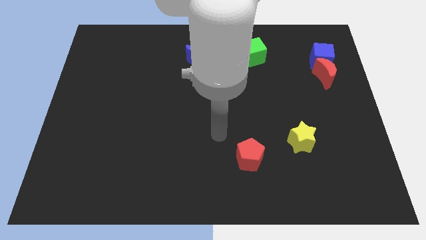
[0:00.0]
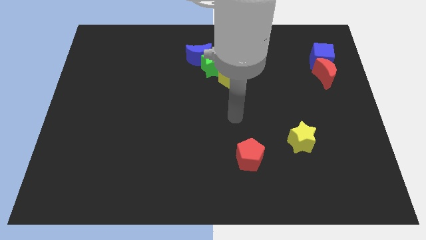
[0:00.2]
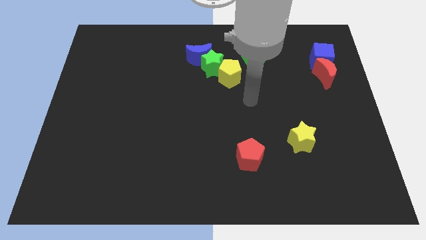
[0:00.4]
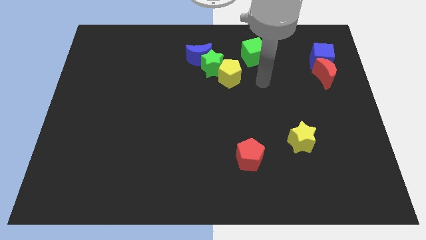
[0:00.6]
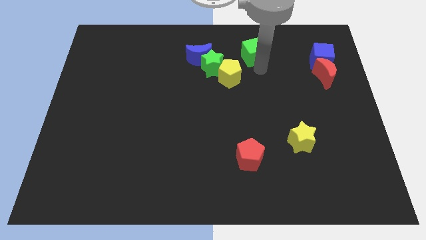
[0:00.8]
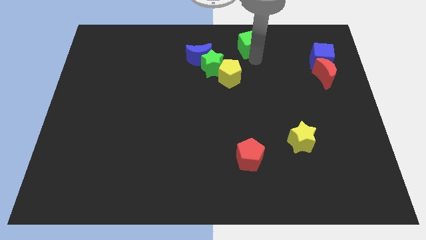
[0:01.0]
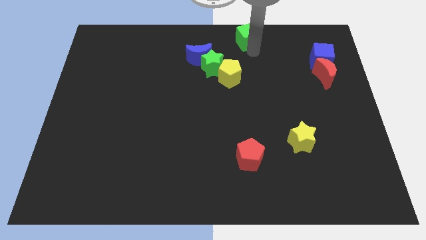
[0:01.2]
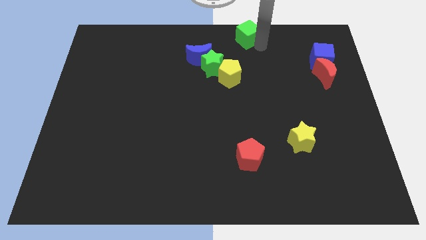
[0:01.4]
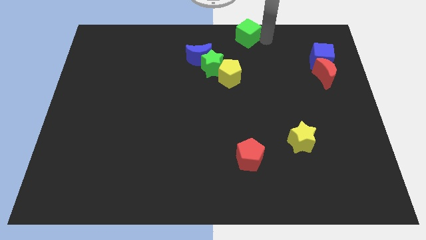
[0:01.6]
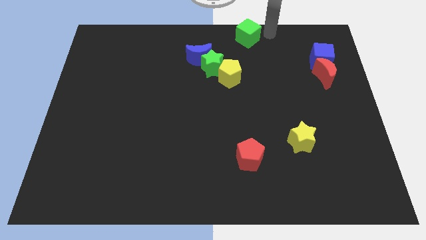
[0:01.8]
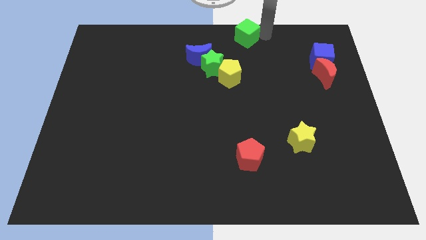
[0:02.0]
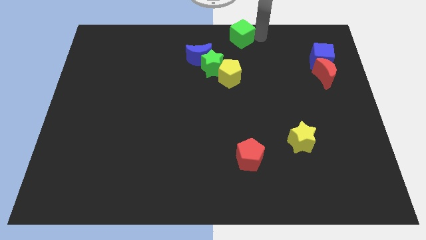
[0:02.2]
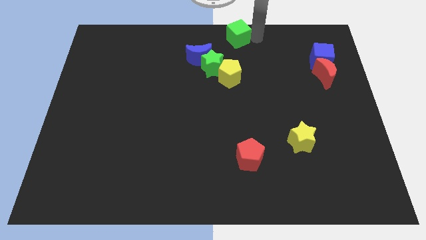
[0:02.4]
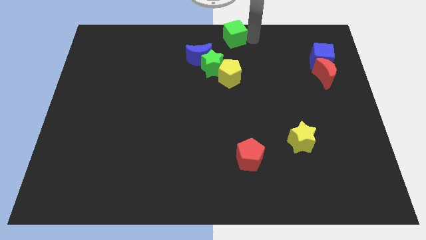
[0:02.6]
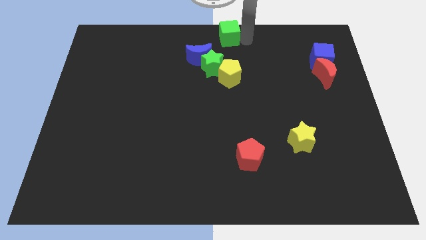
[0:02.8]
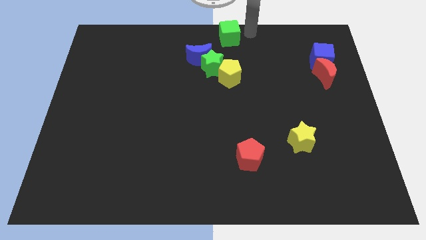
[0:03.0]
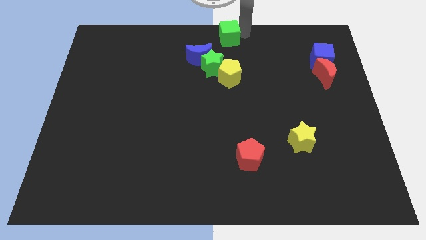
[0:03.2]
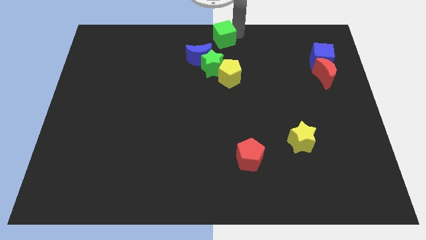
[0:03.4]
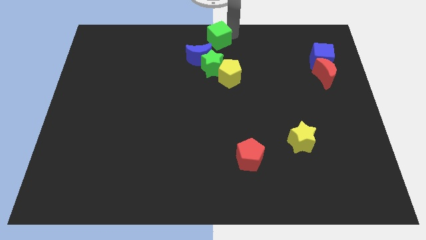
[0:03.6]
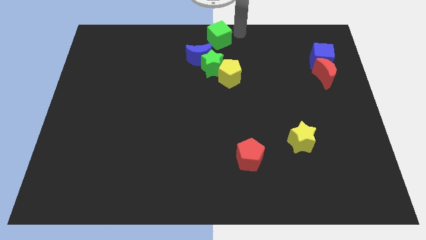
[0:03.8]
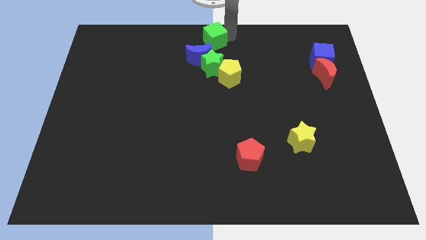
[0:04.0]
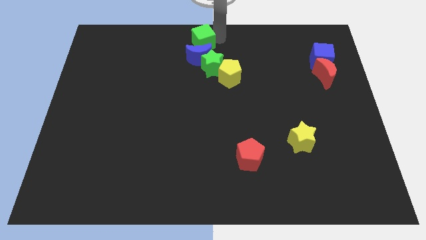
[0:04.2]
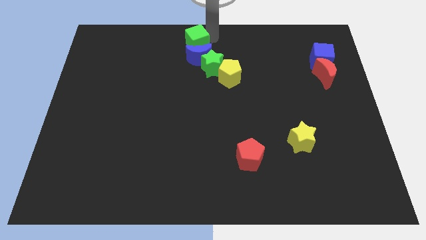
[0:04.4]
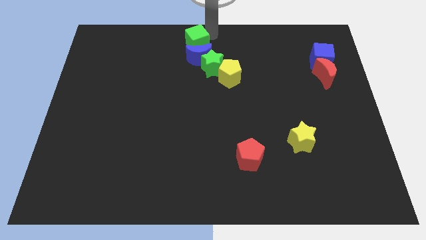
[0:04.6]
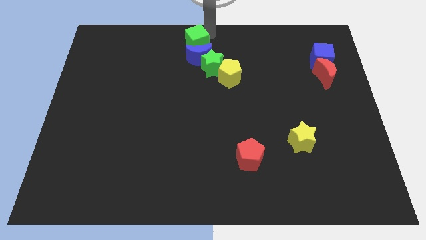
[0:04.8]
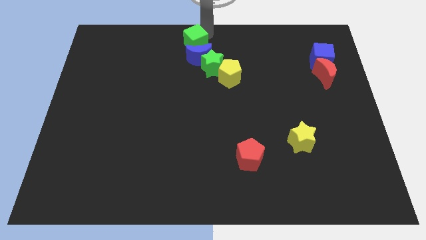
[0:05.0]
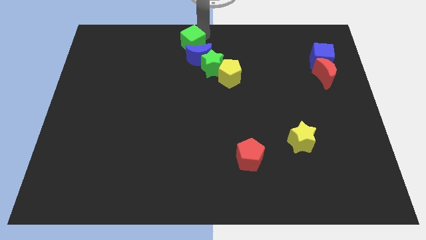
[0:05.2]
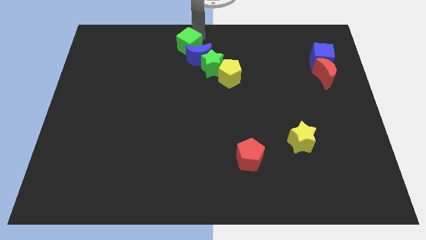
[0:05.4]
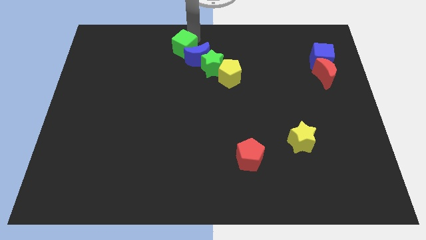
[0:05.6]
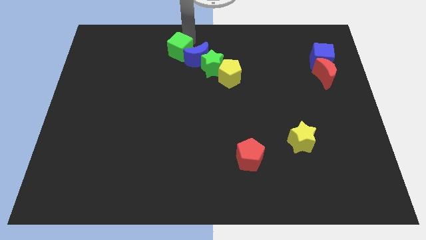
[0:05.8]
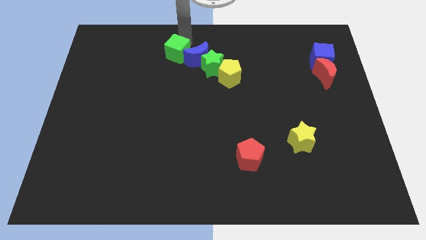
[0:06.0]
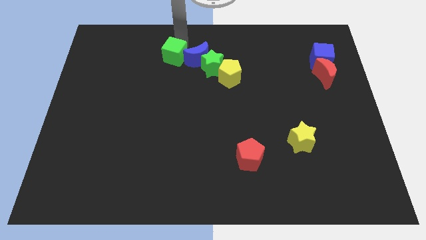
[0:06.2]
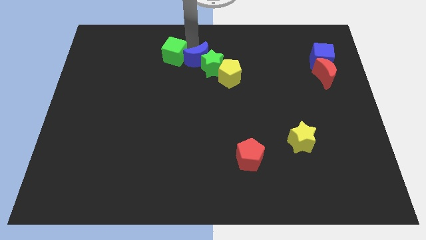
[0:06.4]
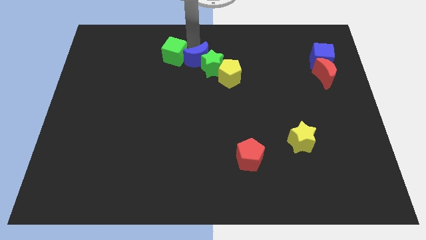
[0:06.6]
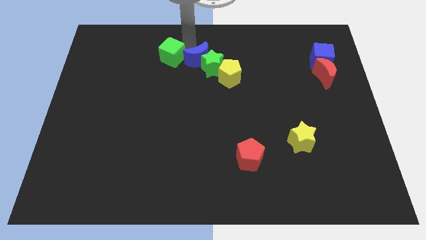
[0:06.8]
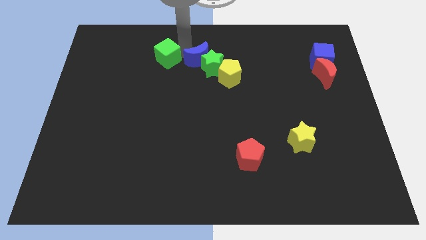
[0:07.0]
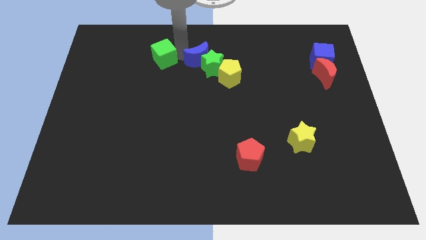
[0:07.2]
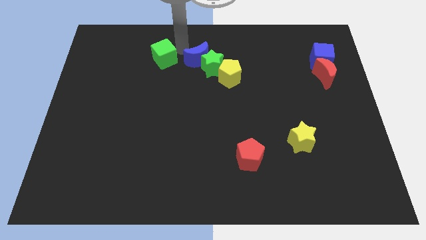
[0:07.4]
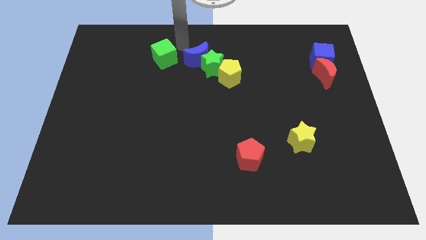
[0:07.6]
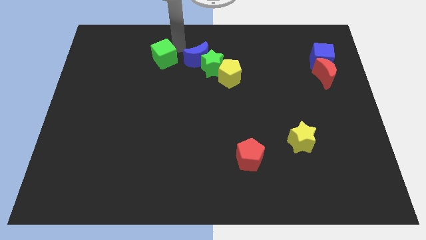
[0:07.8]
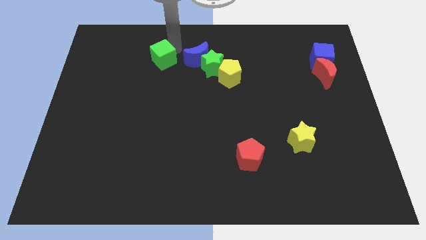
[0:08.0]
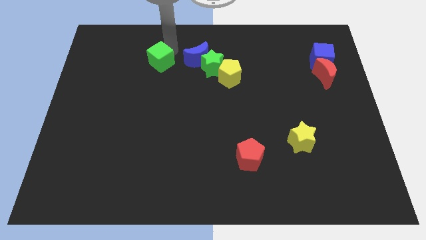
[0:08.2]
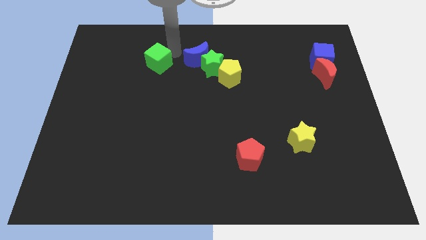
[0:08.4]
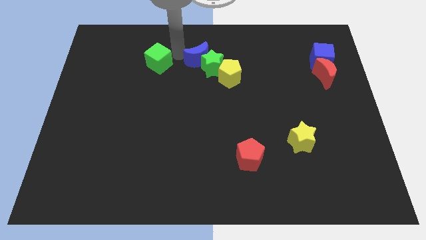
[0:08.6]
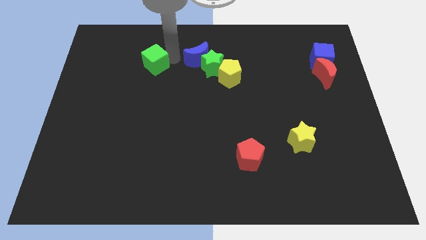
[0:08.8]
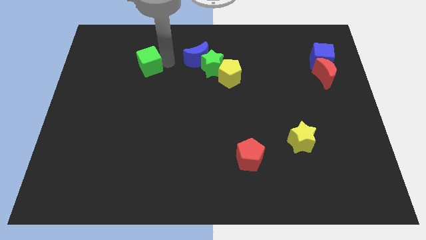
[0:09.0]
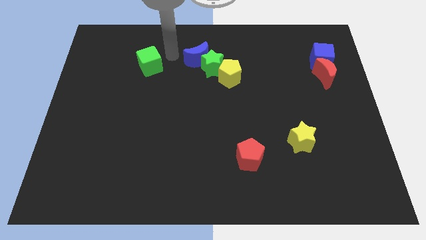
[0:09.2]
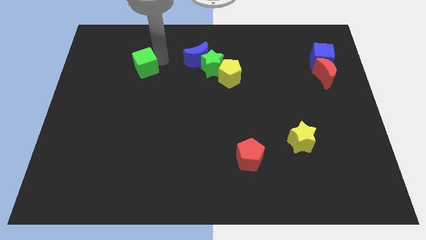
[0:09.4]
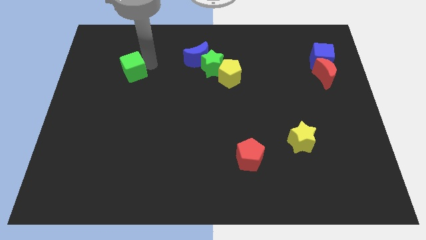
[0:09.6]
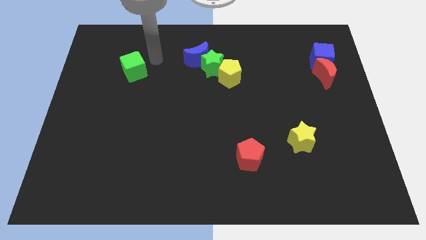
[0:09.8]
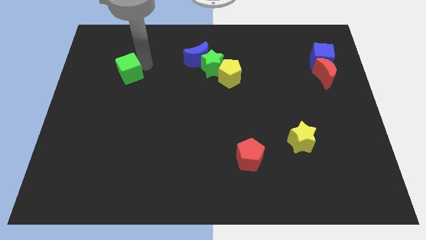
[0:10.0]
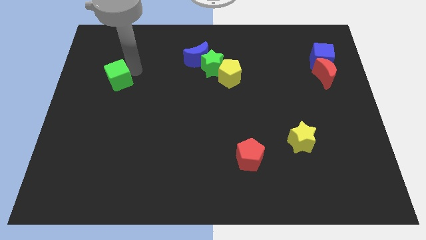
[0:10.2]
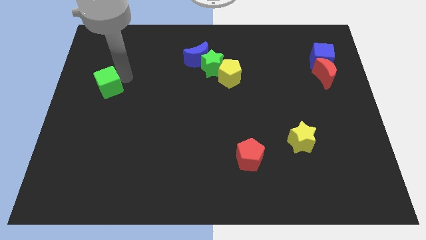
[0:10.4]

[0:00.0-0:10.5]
put the green cube to the left side

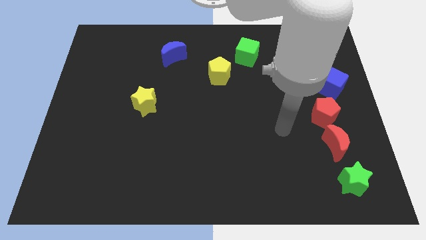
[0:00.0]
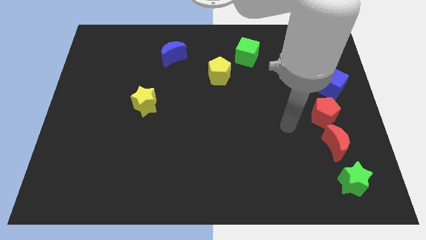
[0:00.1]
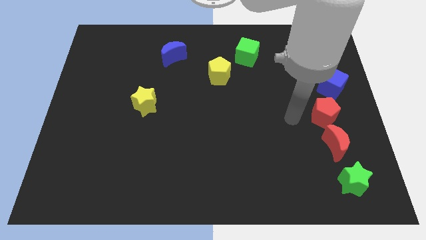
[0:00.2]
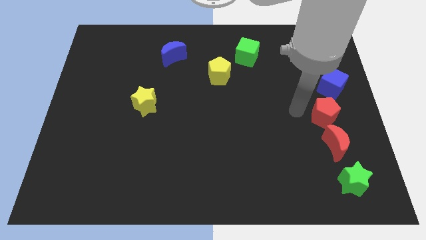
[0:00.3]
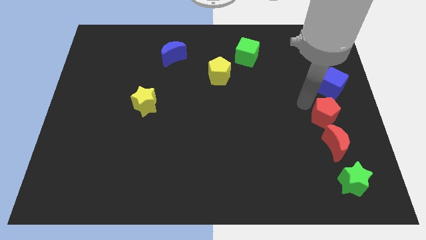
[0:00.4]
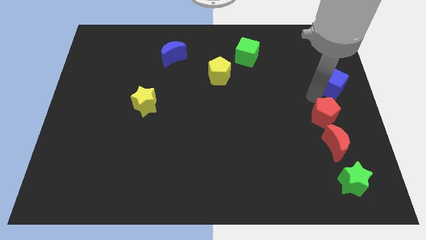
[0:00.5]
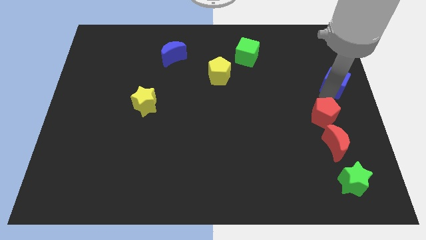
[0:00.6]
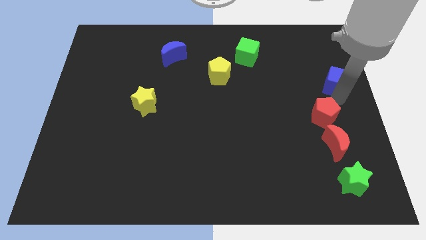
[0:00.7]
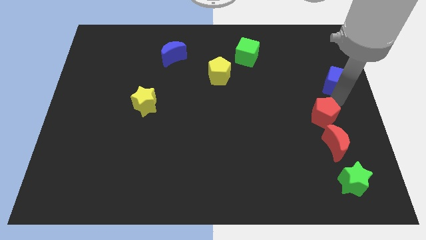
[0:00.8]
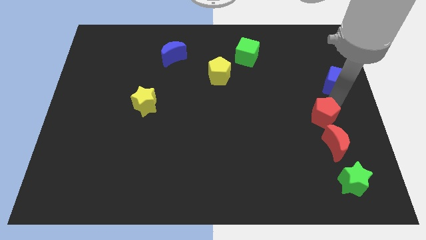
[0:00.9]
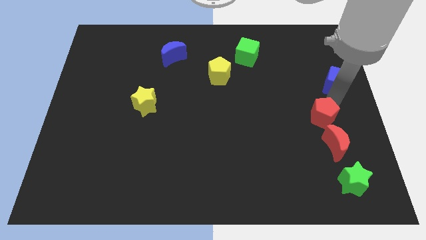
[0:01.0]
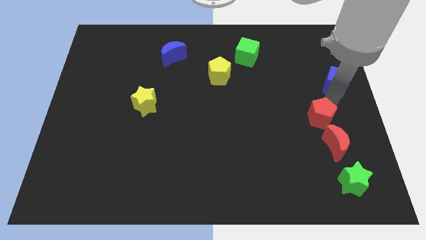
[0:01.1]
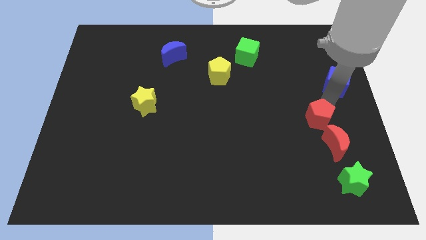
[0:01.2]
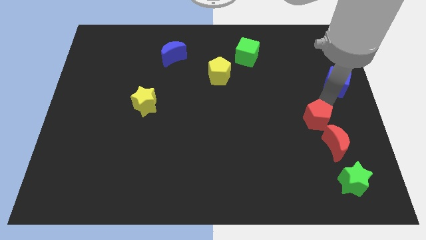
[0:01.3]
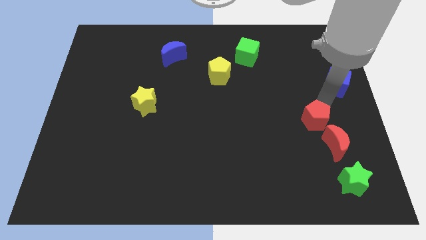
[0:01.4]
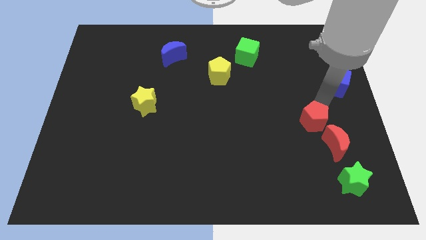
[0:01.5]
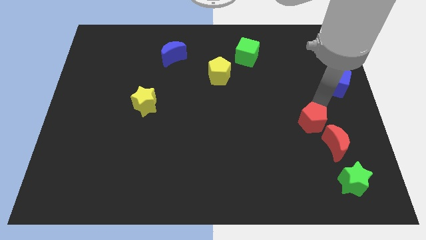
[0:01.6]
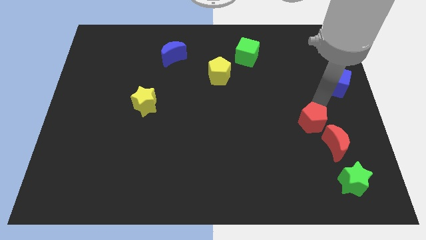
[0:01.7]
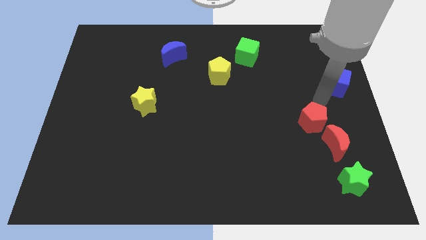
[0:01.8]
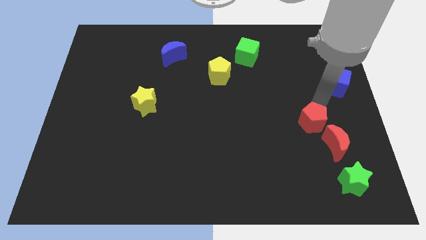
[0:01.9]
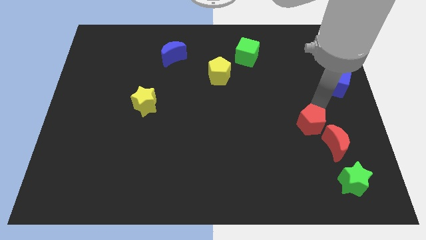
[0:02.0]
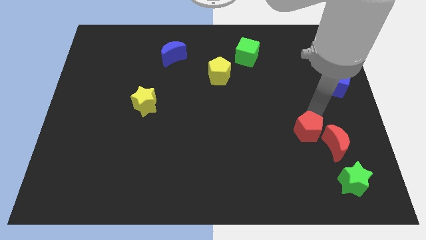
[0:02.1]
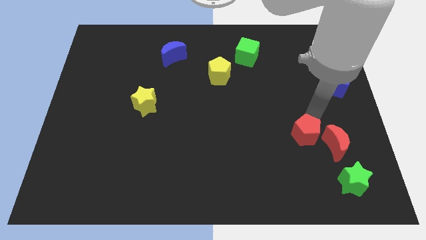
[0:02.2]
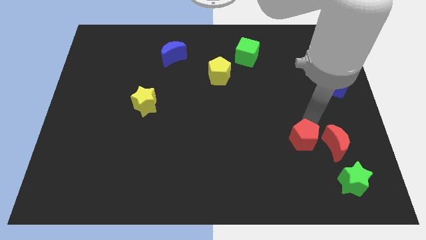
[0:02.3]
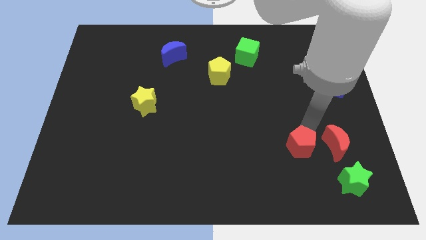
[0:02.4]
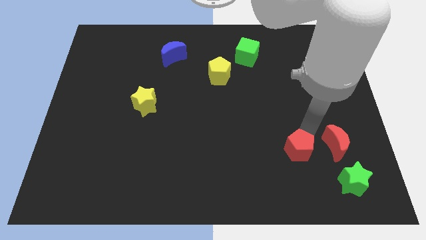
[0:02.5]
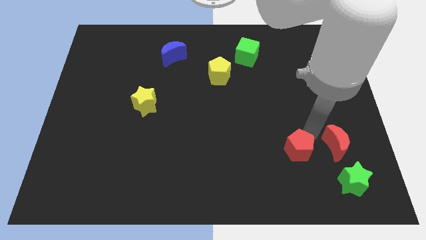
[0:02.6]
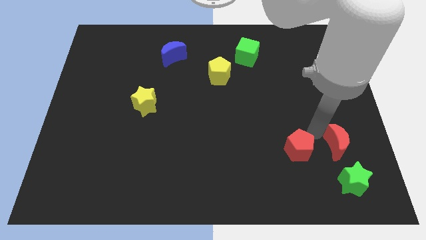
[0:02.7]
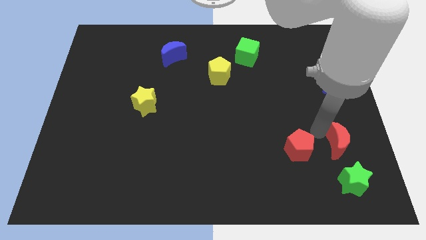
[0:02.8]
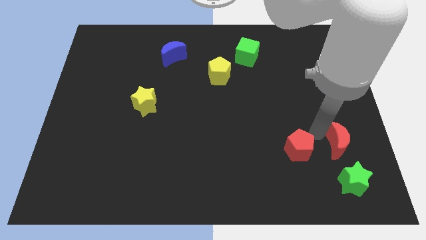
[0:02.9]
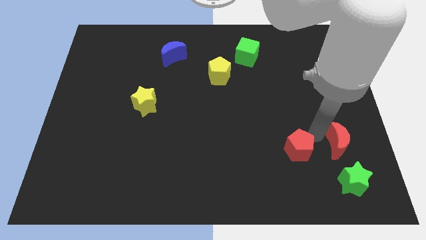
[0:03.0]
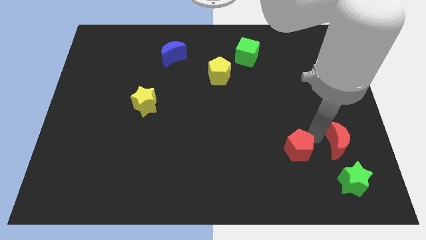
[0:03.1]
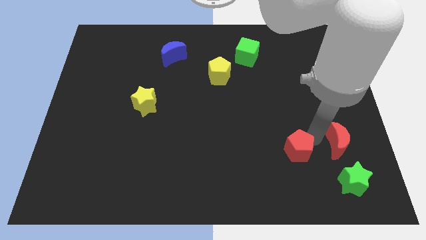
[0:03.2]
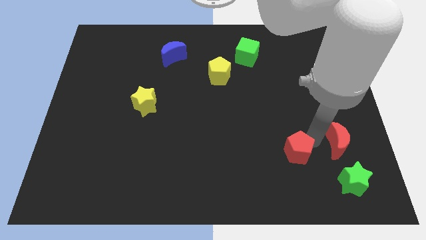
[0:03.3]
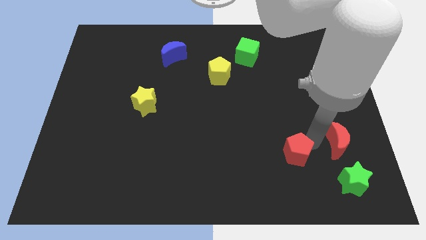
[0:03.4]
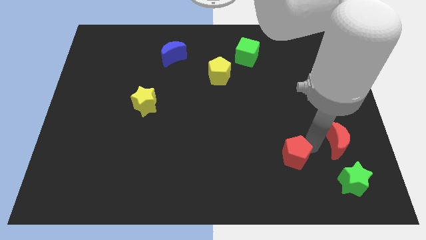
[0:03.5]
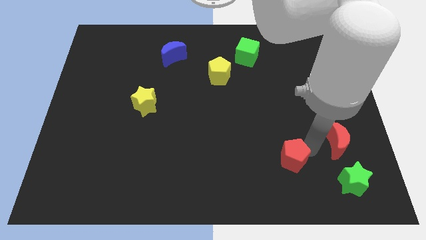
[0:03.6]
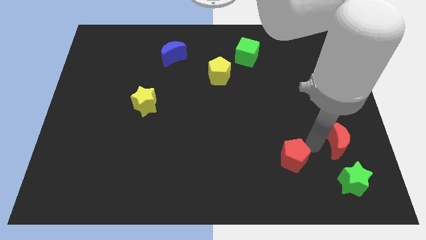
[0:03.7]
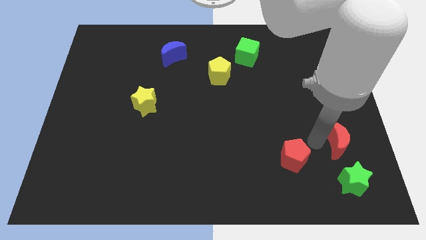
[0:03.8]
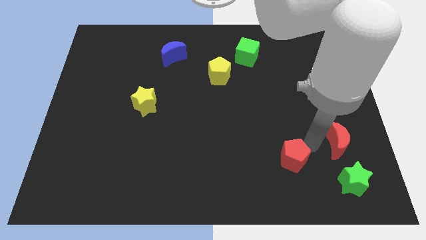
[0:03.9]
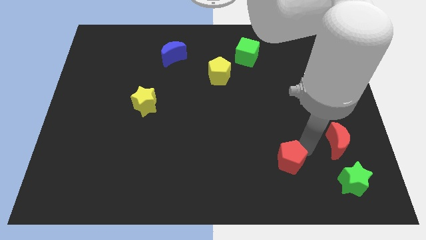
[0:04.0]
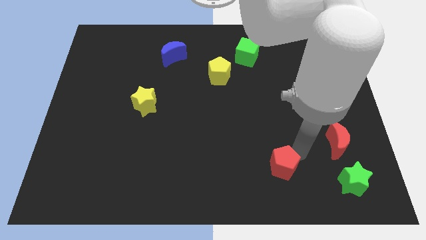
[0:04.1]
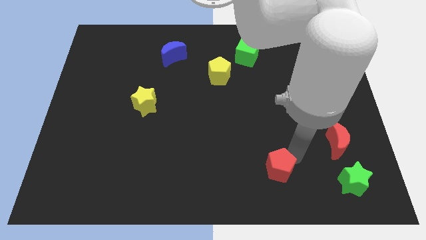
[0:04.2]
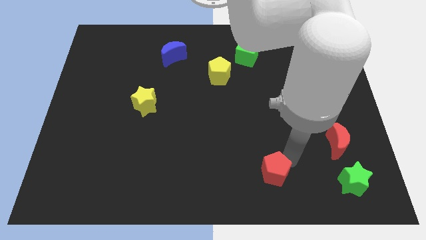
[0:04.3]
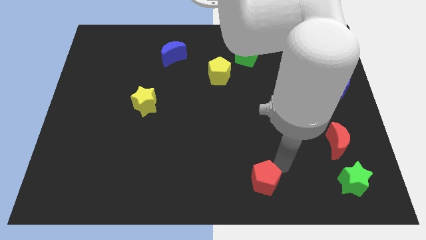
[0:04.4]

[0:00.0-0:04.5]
move the red pentagon to the bottom
